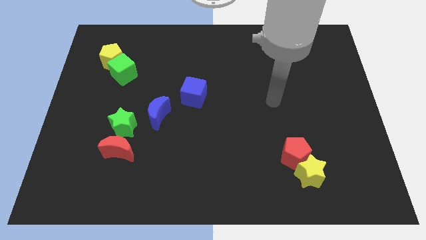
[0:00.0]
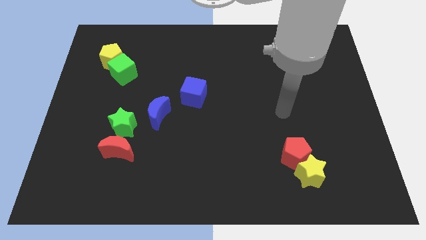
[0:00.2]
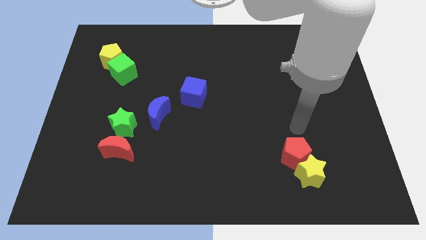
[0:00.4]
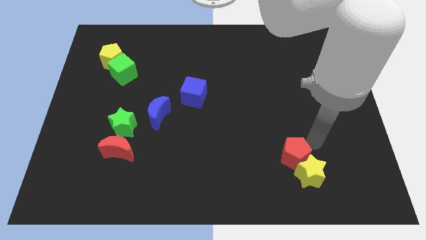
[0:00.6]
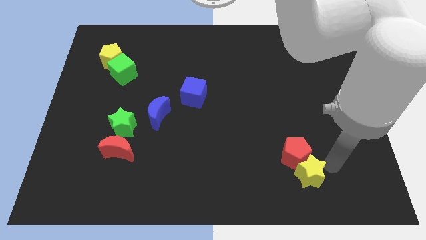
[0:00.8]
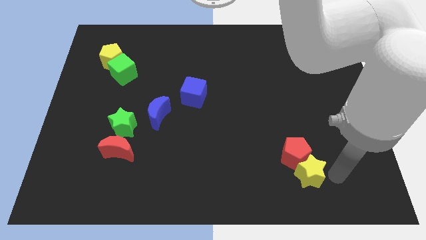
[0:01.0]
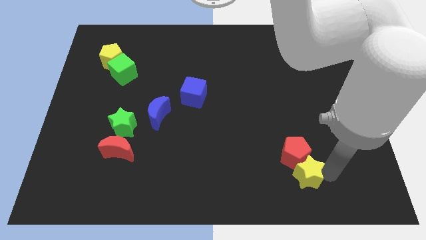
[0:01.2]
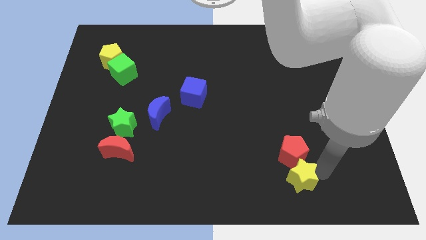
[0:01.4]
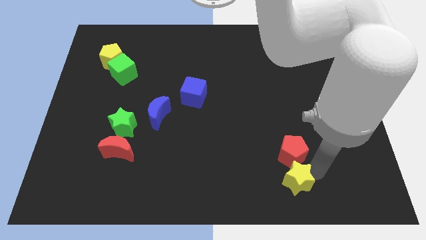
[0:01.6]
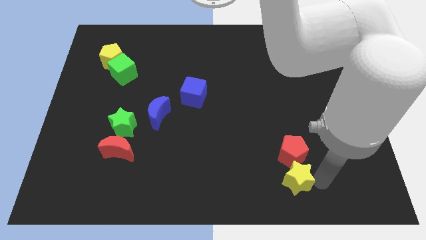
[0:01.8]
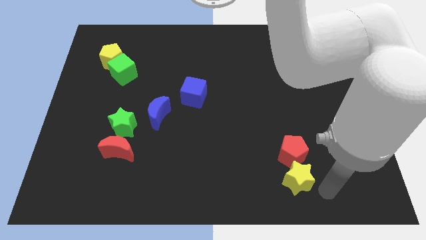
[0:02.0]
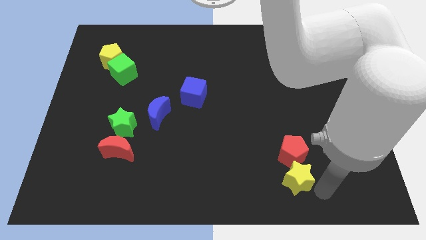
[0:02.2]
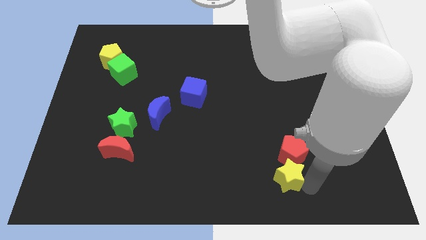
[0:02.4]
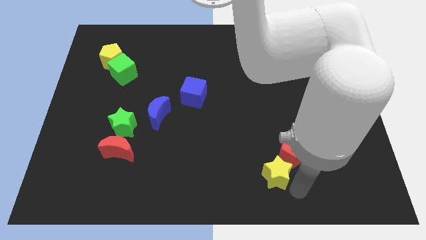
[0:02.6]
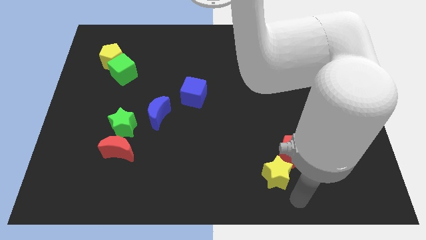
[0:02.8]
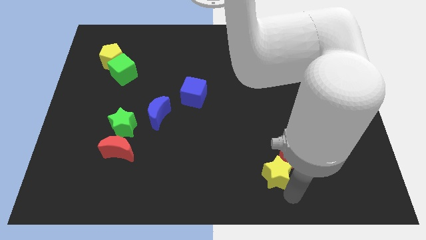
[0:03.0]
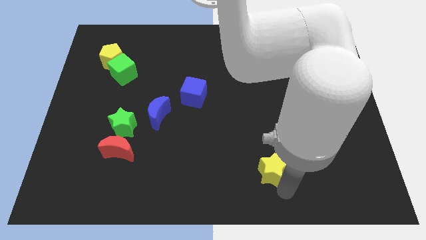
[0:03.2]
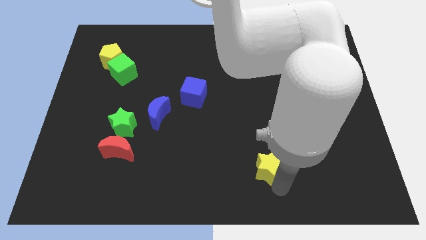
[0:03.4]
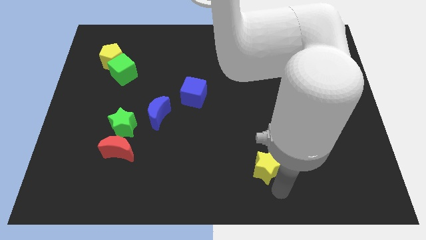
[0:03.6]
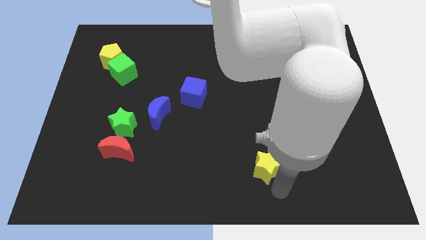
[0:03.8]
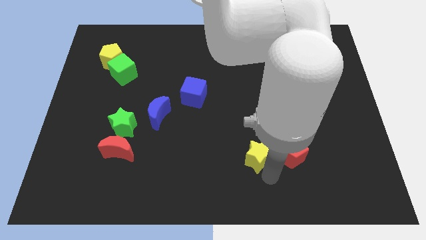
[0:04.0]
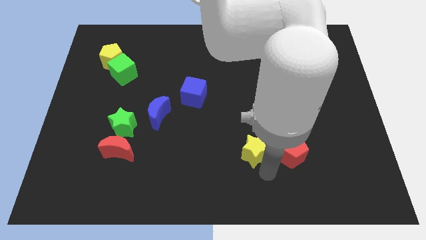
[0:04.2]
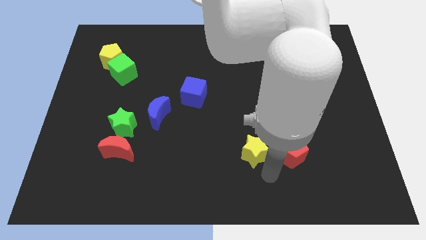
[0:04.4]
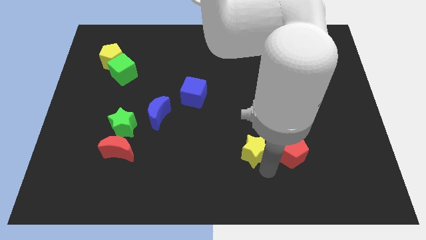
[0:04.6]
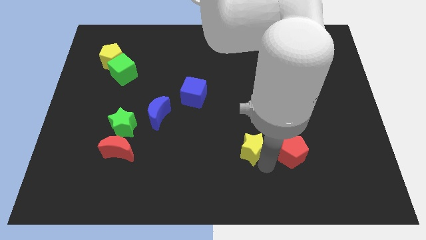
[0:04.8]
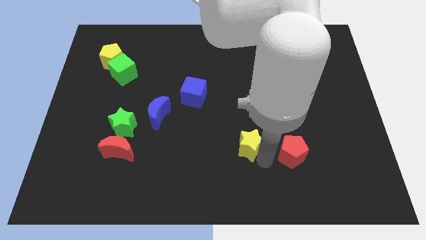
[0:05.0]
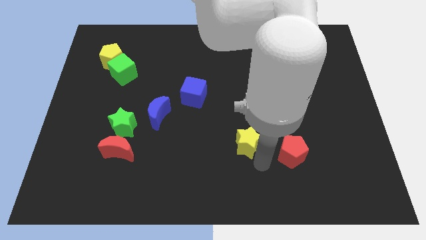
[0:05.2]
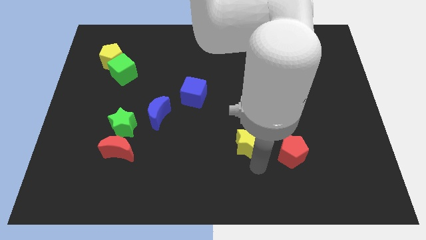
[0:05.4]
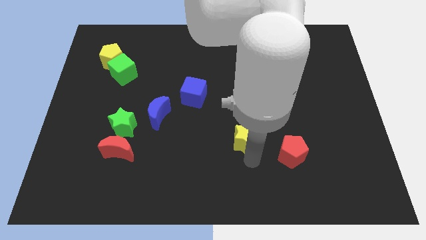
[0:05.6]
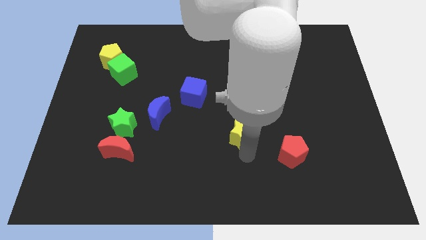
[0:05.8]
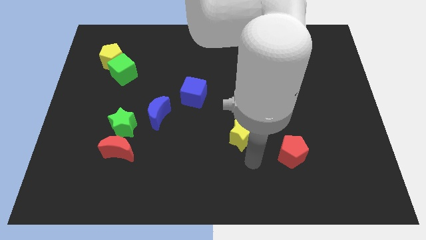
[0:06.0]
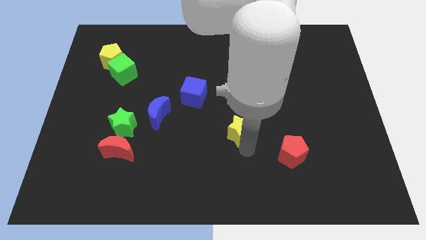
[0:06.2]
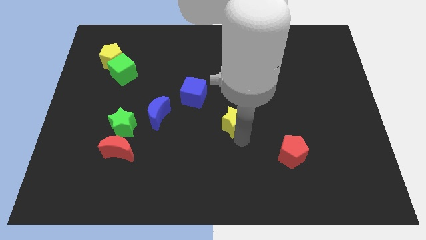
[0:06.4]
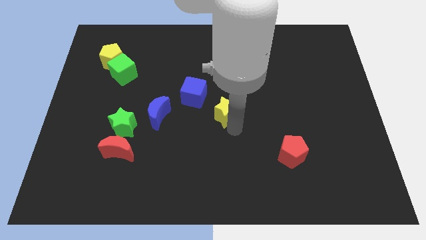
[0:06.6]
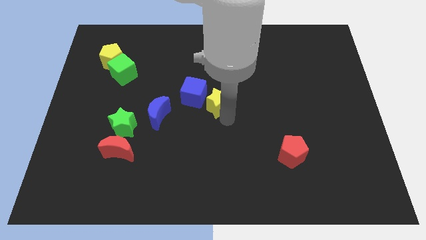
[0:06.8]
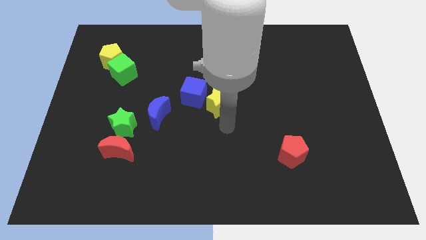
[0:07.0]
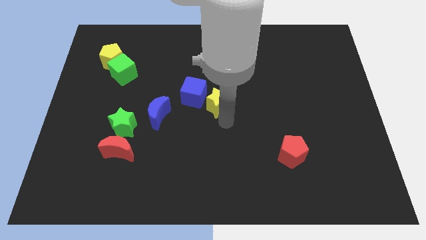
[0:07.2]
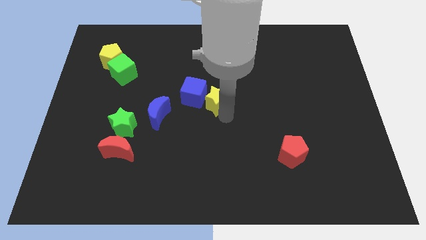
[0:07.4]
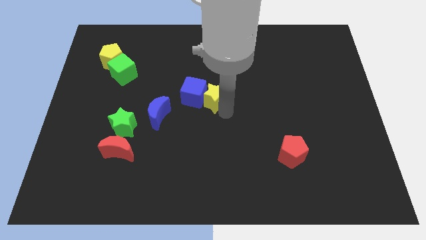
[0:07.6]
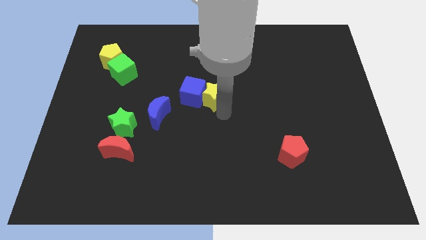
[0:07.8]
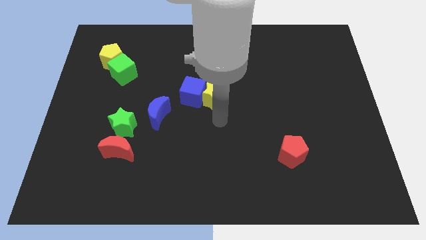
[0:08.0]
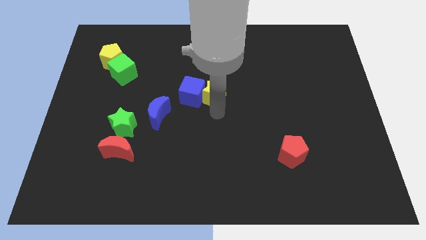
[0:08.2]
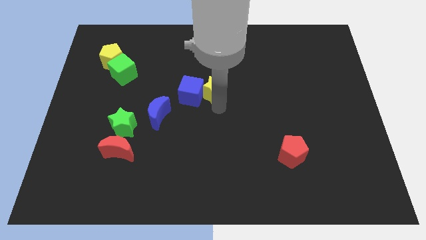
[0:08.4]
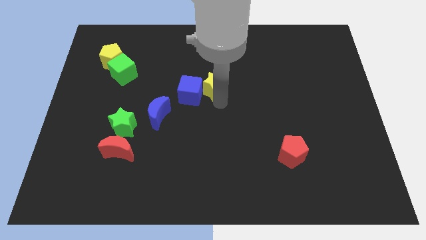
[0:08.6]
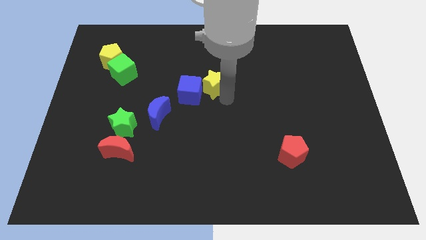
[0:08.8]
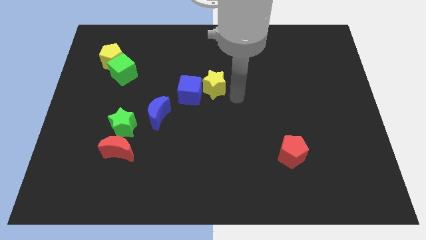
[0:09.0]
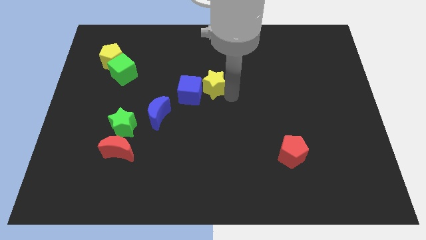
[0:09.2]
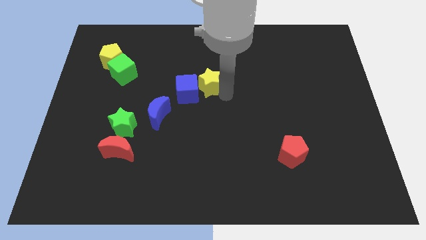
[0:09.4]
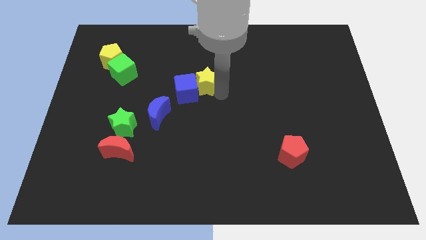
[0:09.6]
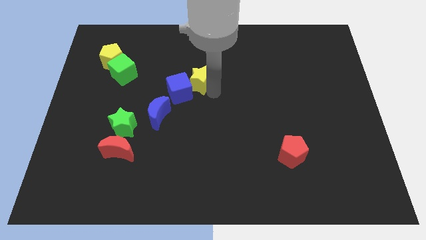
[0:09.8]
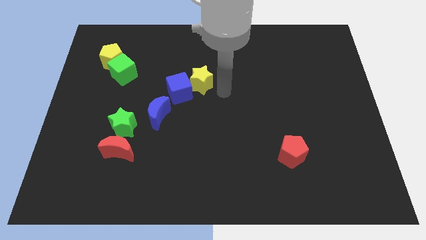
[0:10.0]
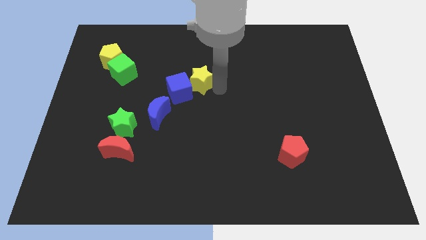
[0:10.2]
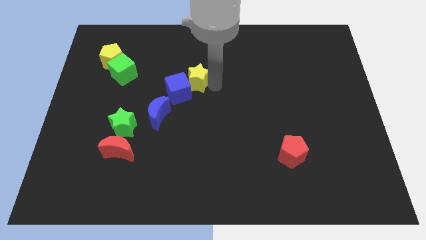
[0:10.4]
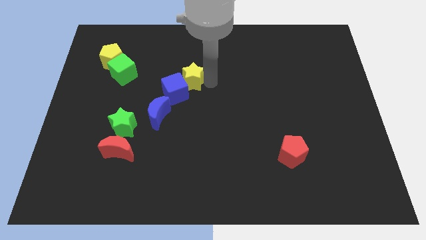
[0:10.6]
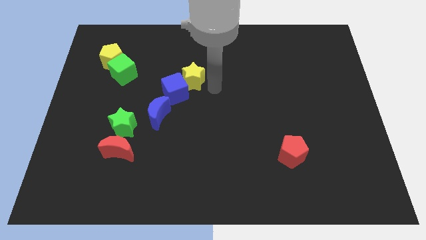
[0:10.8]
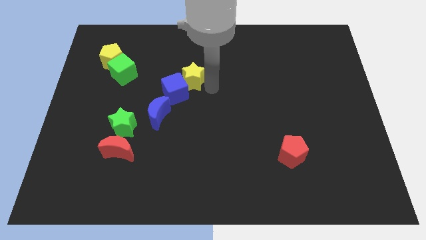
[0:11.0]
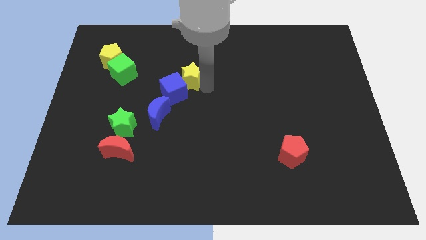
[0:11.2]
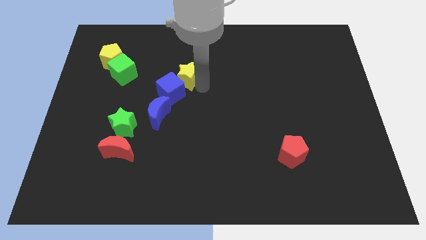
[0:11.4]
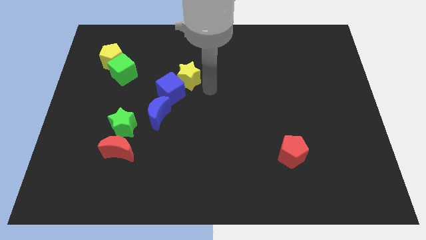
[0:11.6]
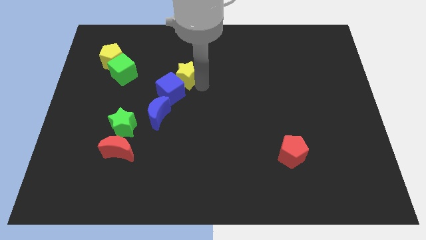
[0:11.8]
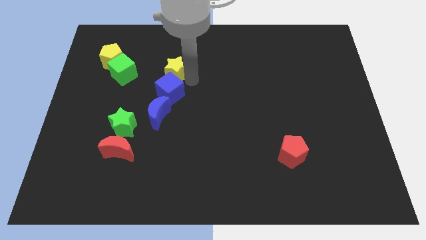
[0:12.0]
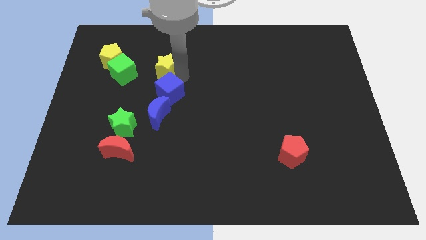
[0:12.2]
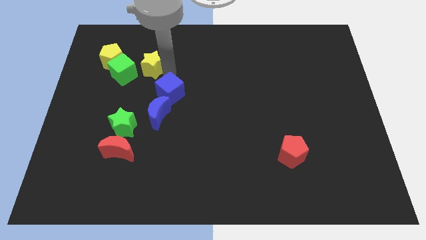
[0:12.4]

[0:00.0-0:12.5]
push the yellow star to the top right of the green cube

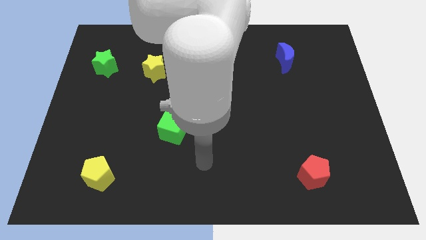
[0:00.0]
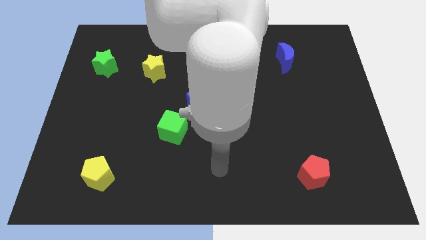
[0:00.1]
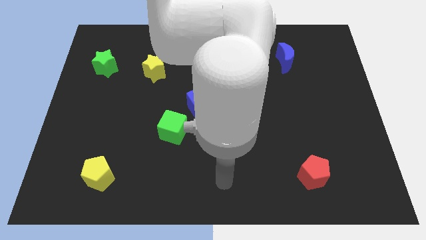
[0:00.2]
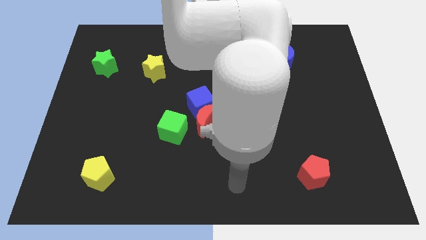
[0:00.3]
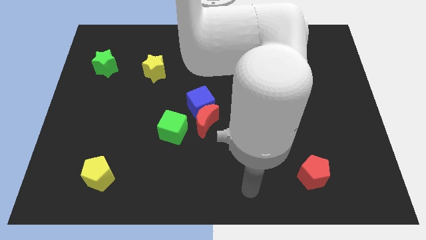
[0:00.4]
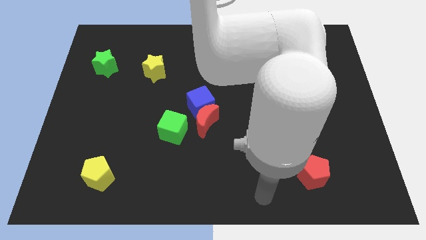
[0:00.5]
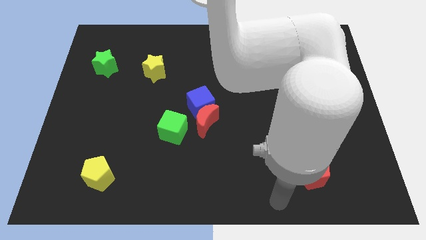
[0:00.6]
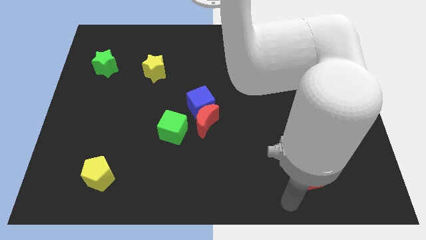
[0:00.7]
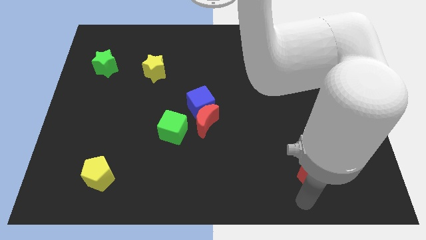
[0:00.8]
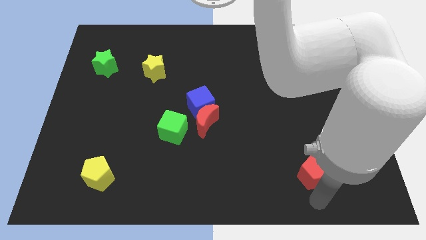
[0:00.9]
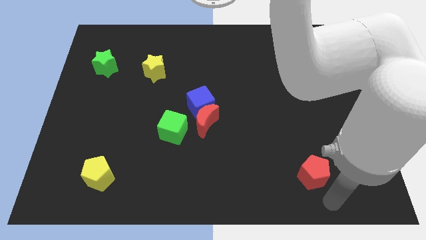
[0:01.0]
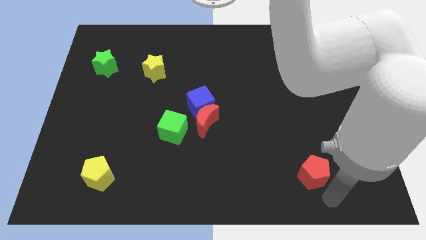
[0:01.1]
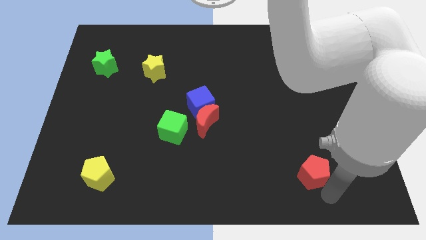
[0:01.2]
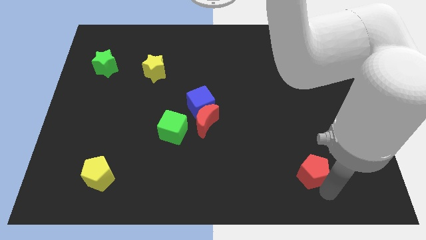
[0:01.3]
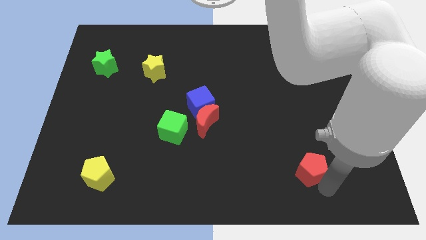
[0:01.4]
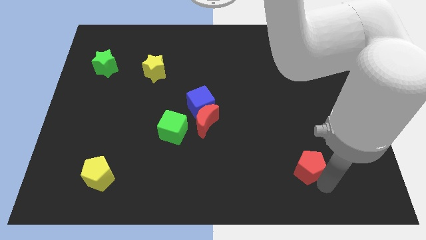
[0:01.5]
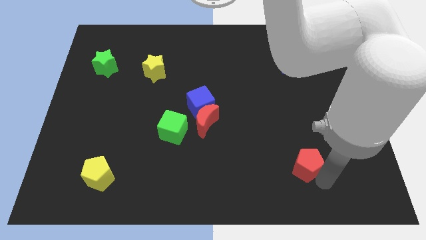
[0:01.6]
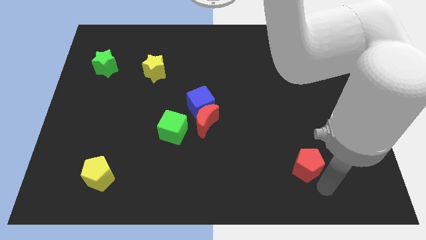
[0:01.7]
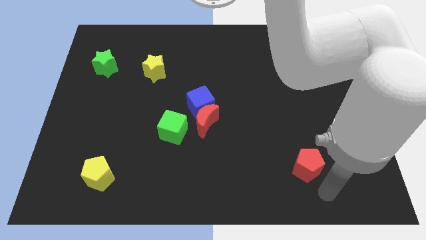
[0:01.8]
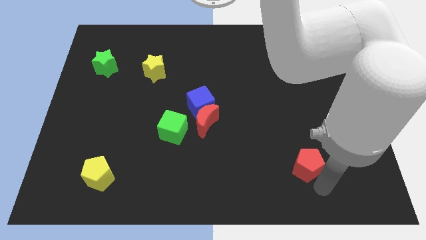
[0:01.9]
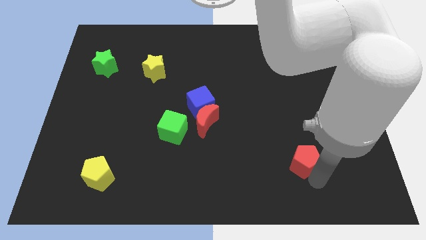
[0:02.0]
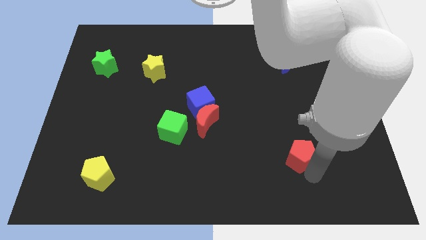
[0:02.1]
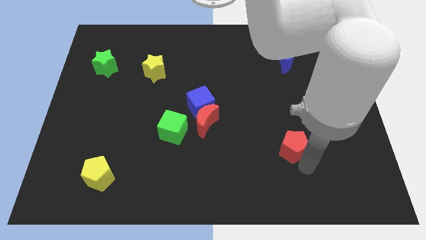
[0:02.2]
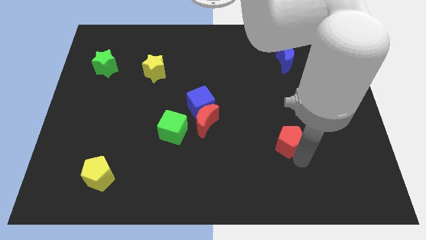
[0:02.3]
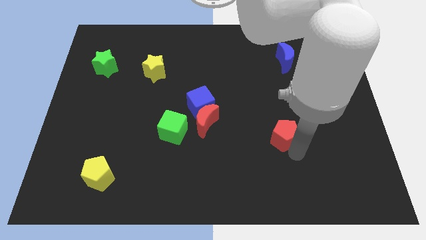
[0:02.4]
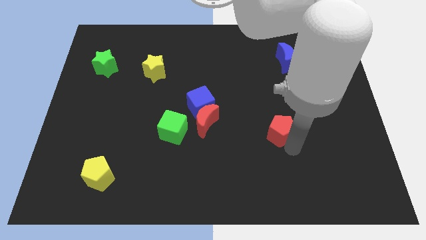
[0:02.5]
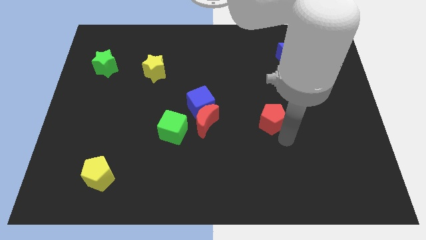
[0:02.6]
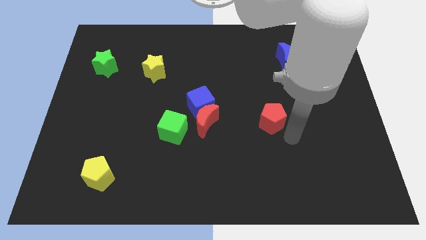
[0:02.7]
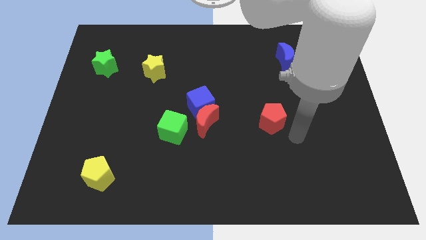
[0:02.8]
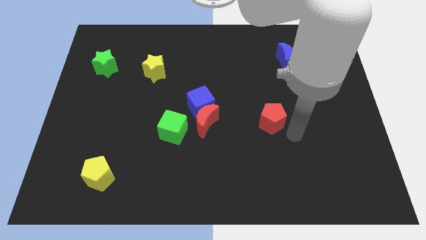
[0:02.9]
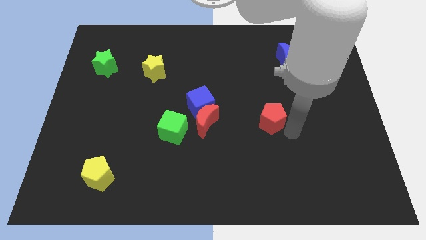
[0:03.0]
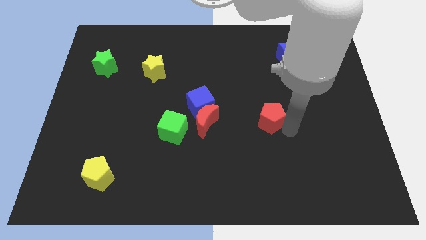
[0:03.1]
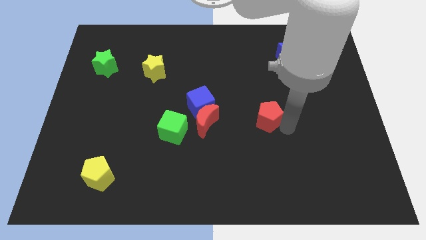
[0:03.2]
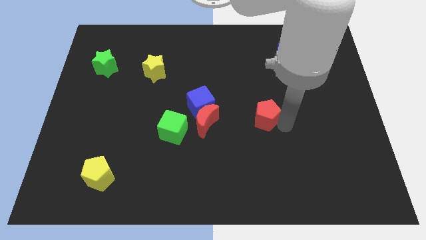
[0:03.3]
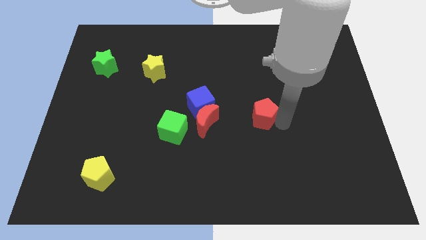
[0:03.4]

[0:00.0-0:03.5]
slide the red pentagon to the right side of the blue cube
